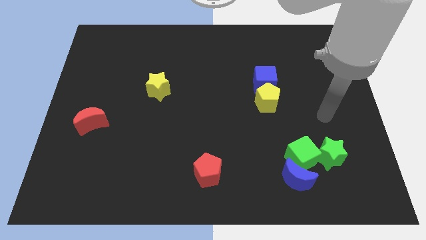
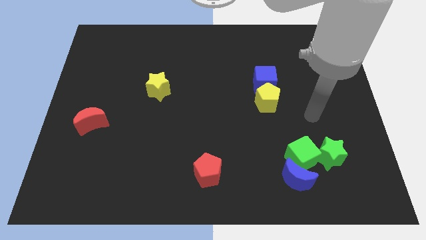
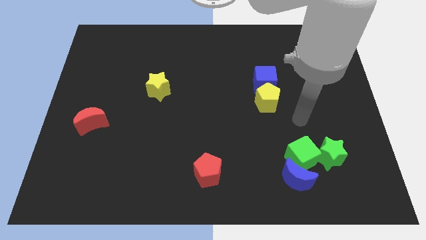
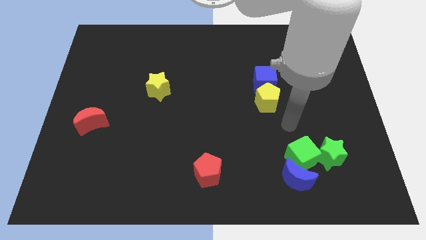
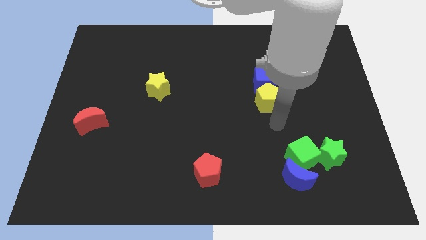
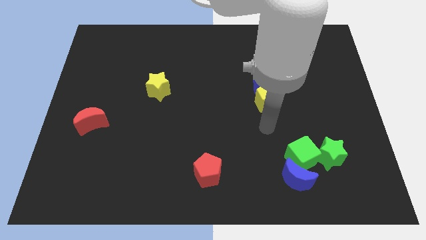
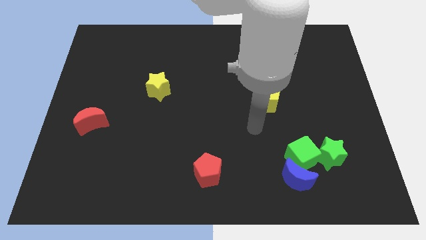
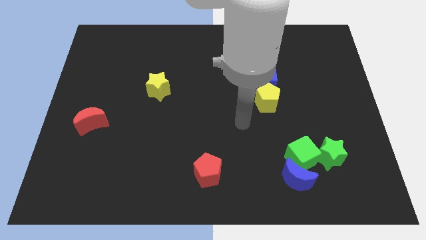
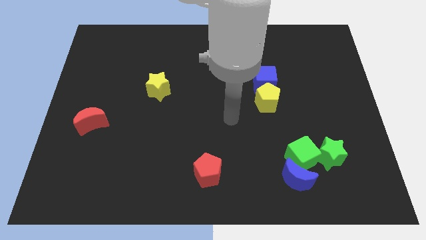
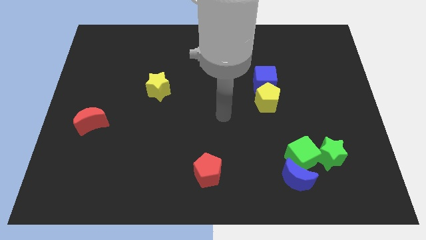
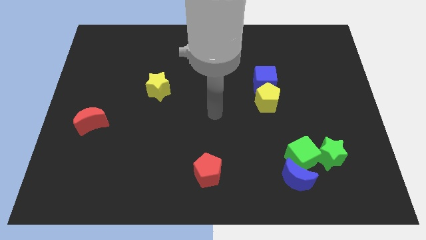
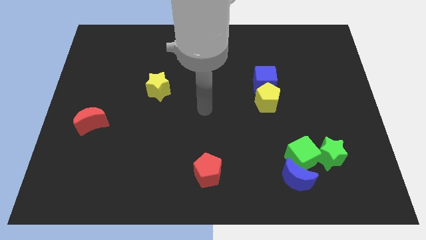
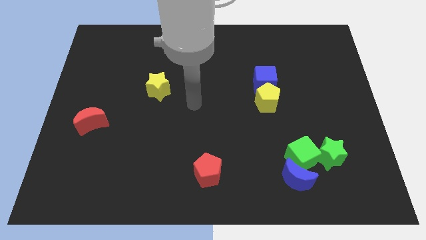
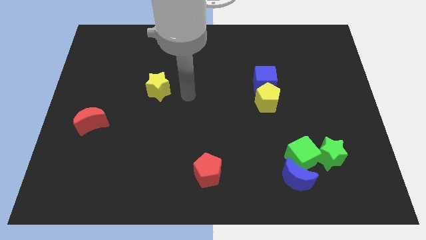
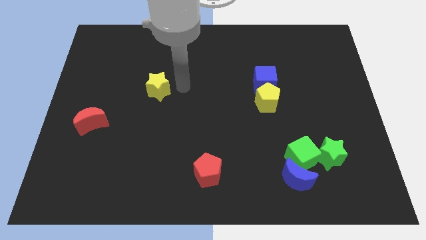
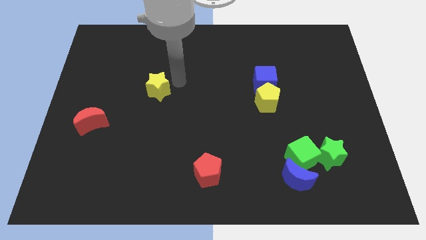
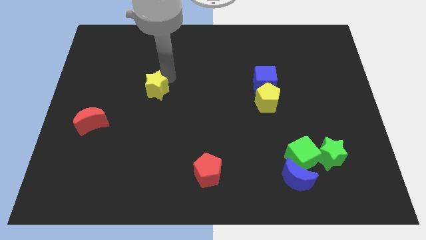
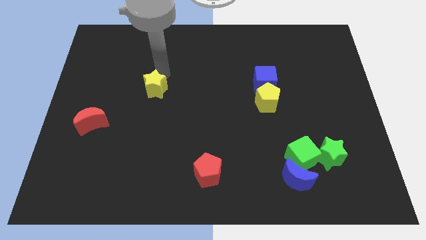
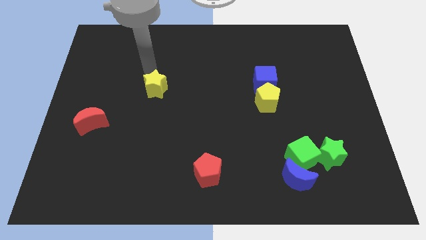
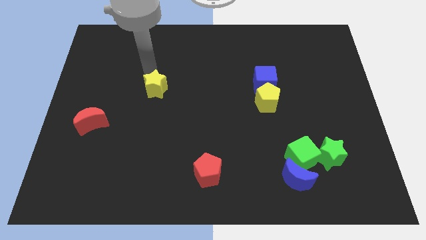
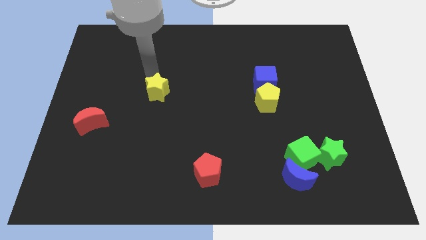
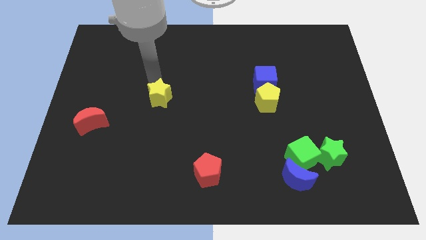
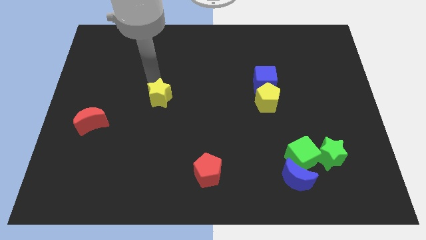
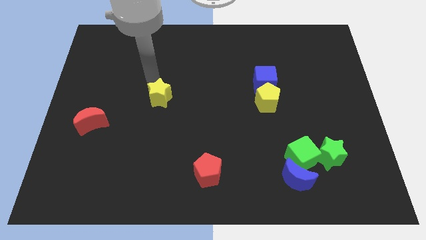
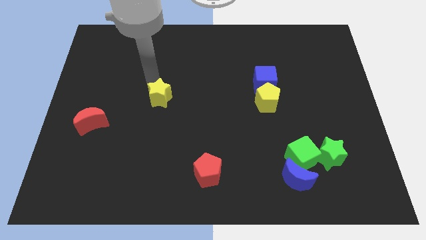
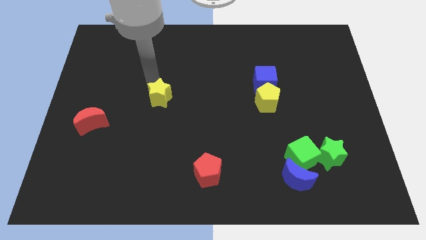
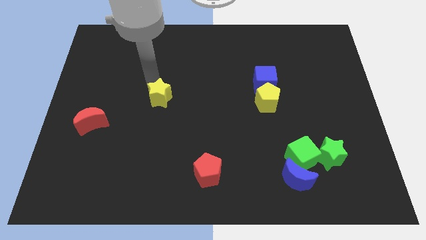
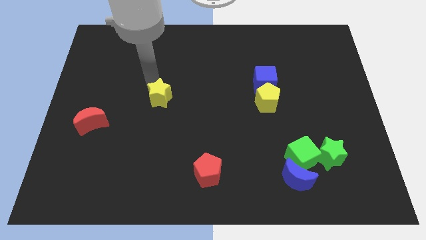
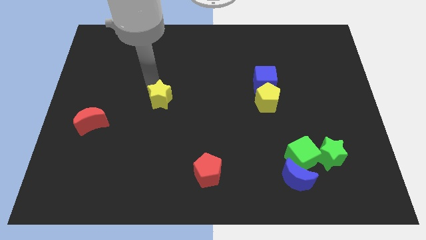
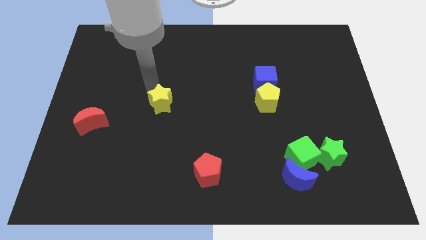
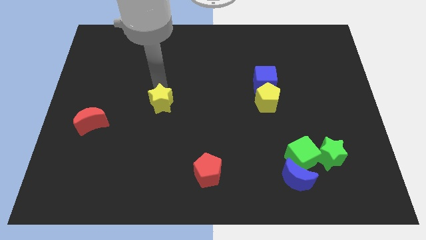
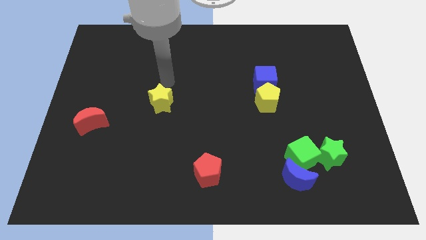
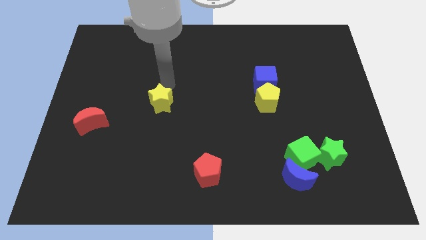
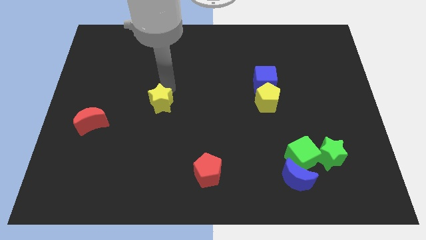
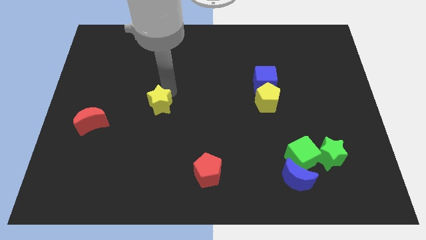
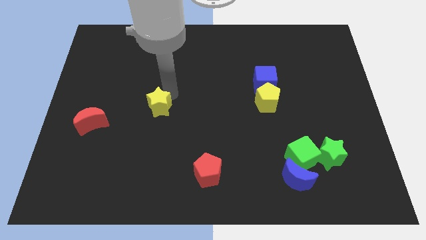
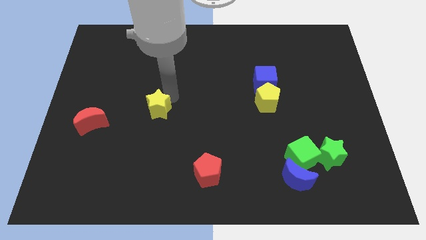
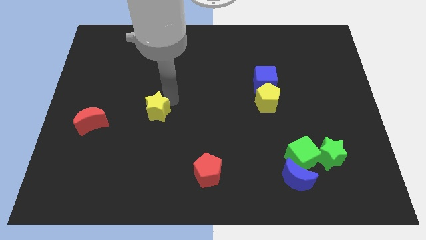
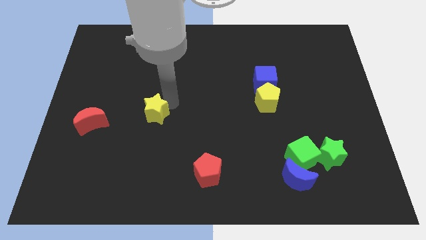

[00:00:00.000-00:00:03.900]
push the yellow star slightly down

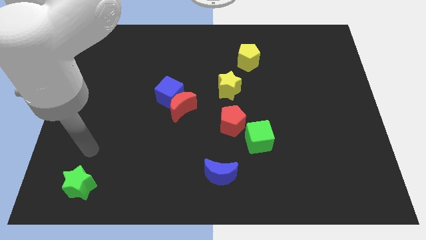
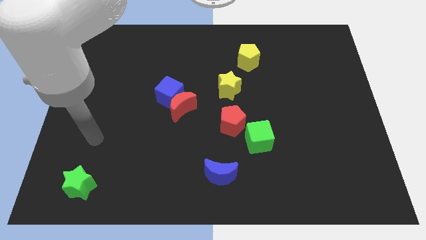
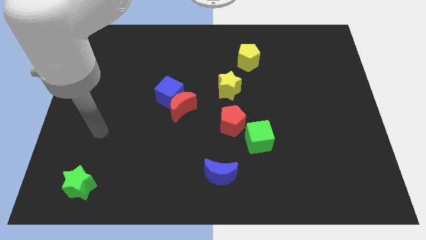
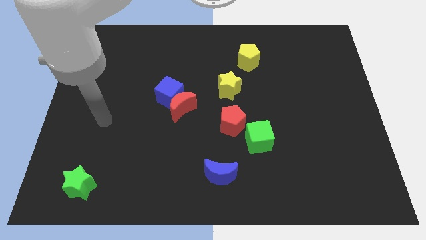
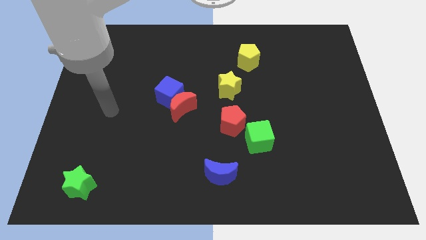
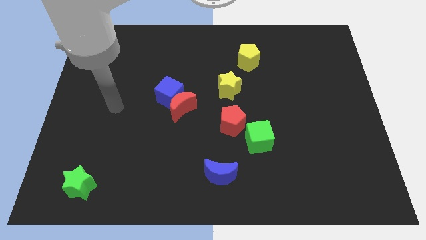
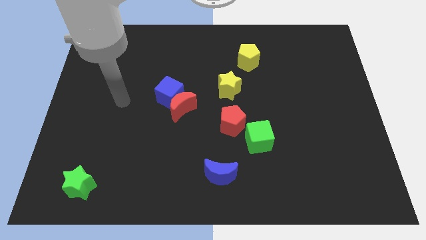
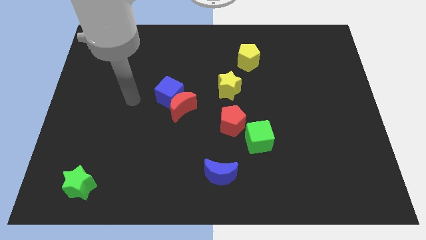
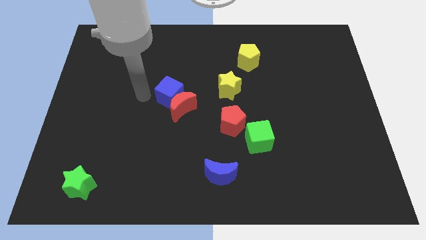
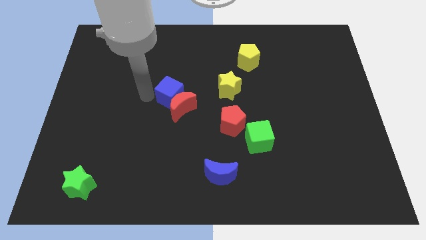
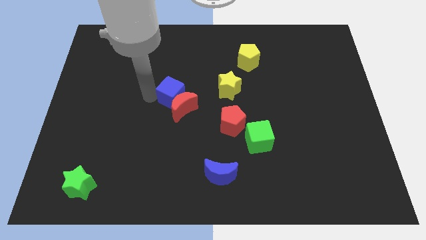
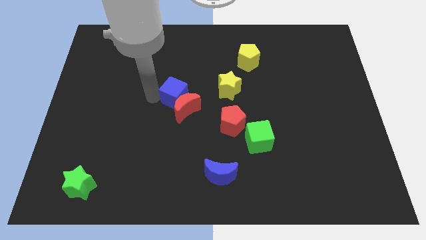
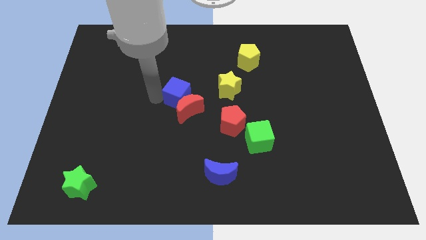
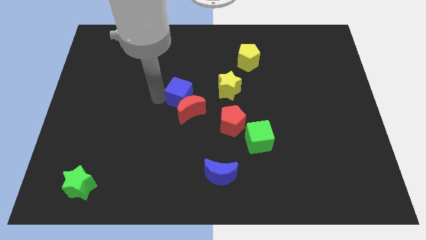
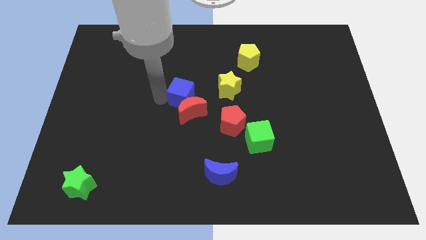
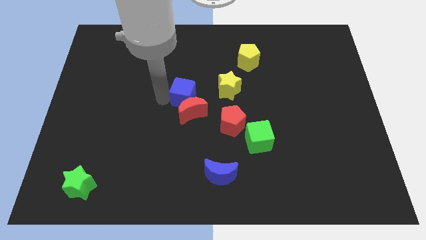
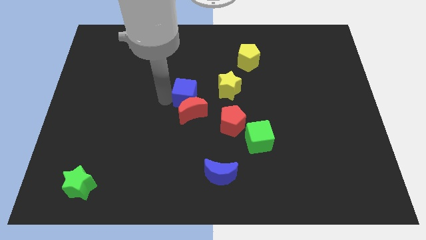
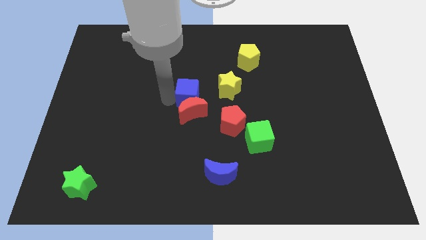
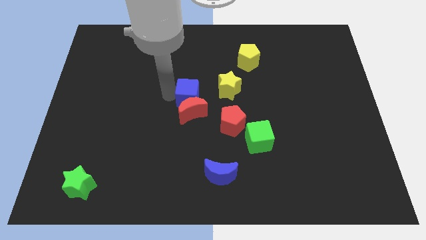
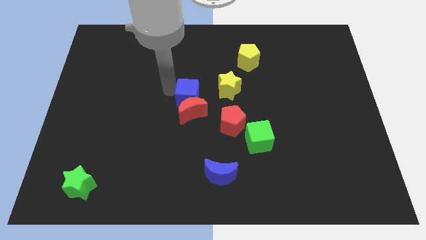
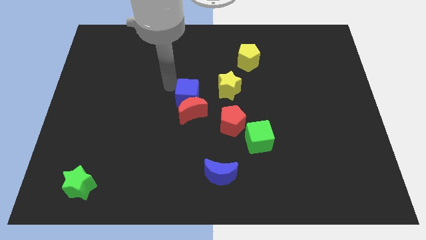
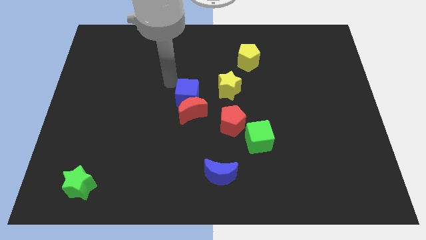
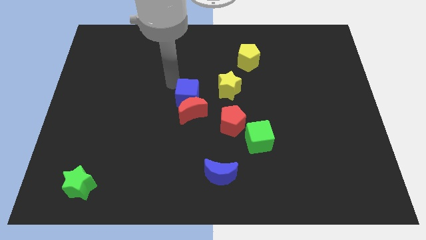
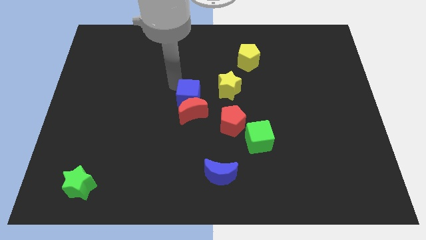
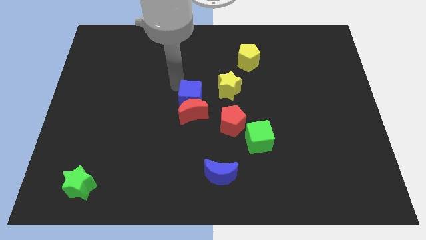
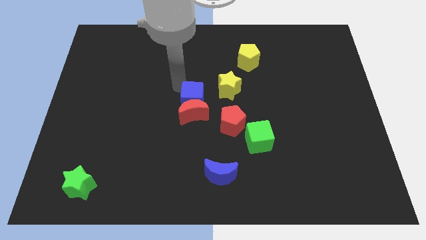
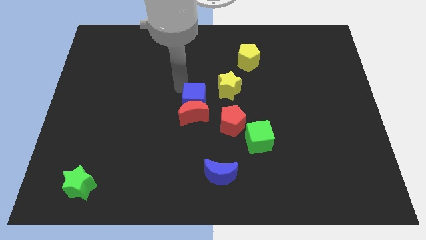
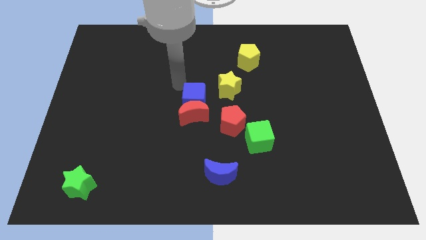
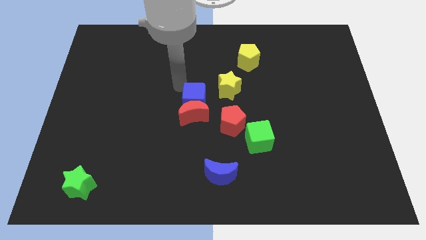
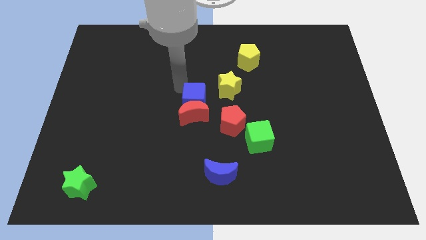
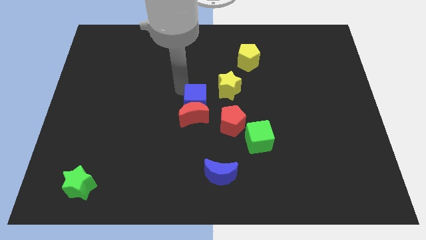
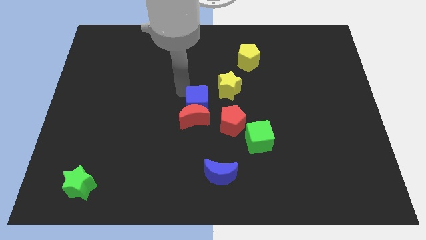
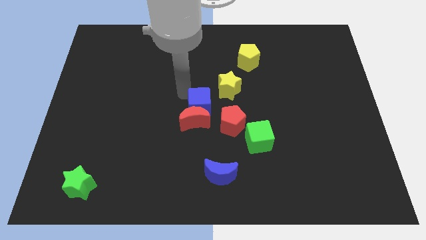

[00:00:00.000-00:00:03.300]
move the blue cube down and to the right diagonally somewhat

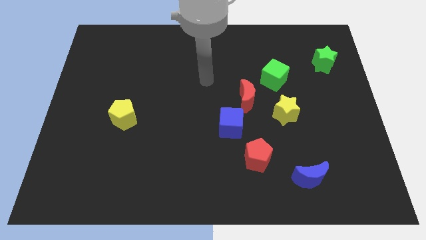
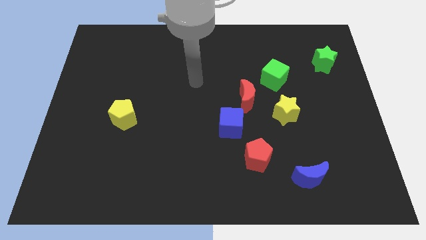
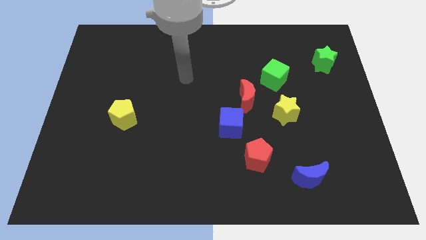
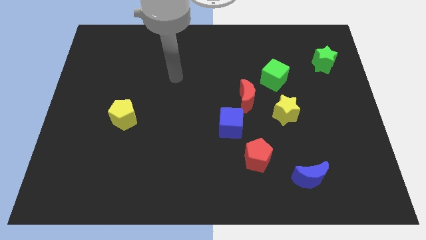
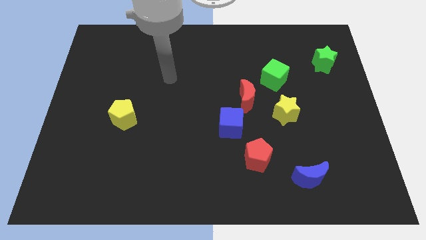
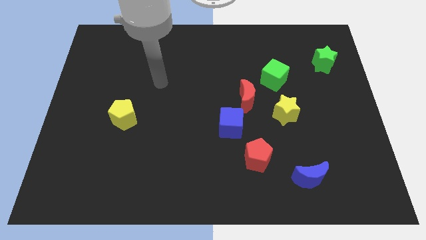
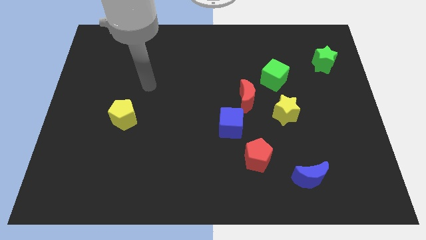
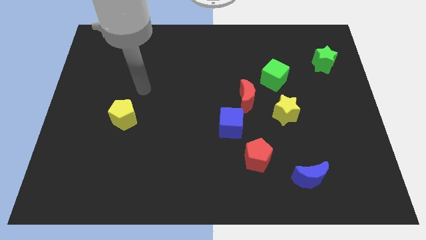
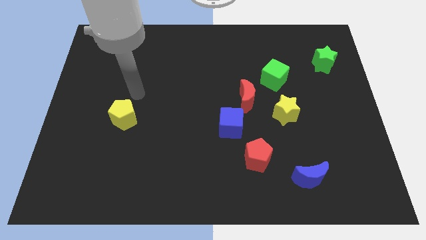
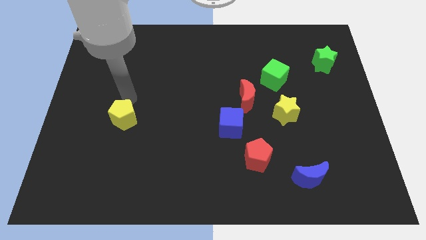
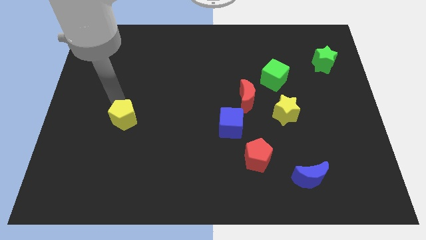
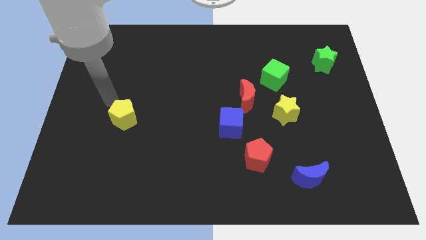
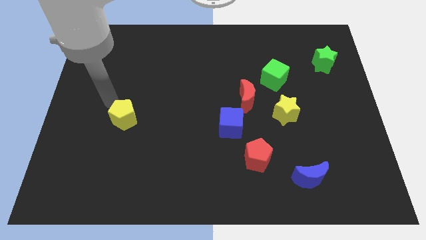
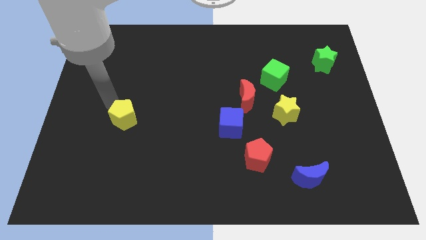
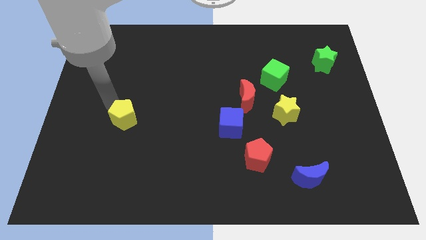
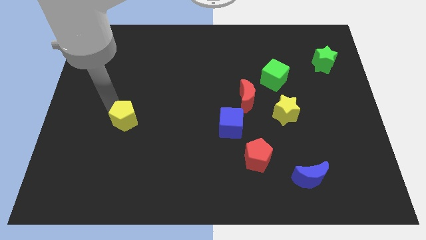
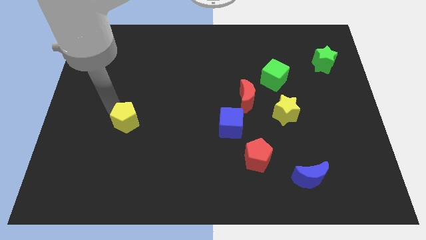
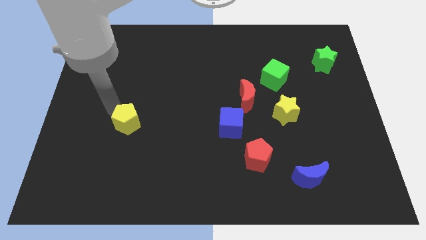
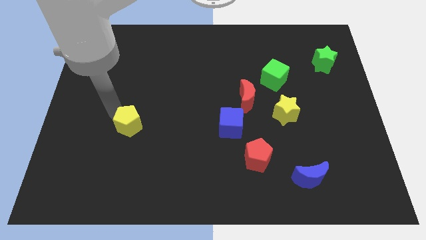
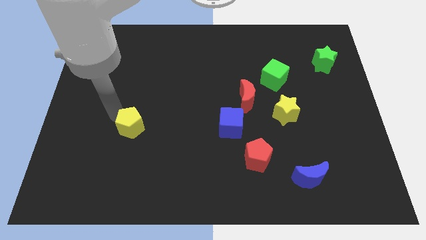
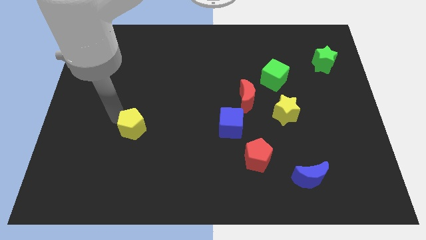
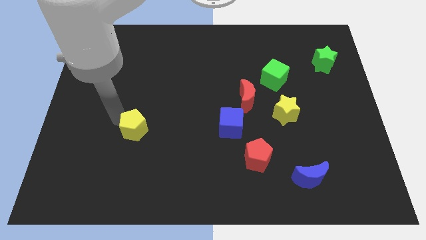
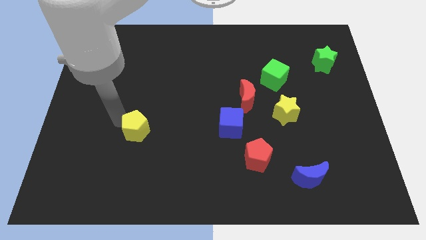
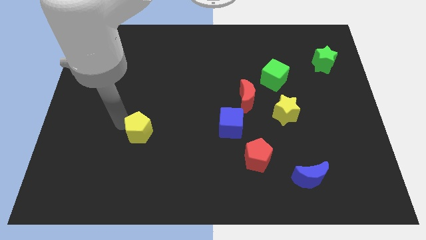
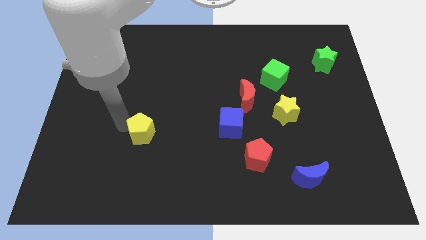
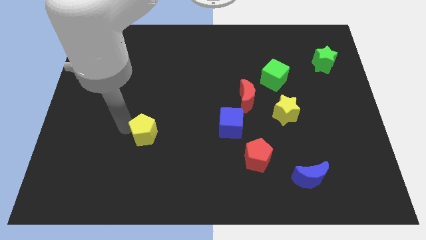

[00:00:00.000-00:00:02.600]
slightly push the yellow pentagon downwards and right diagonally
